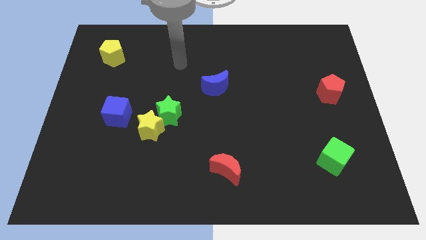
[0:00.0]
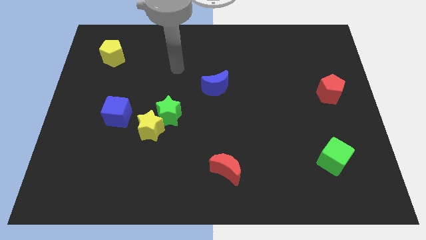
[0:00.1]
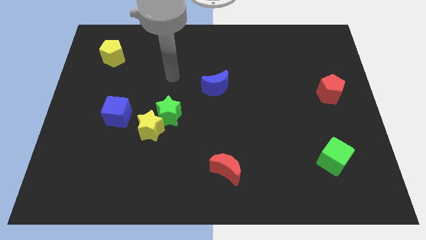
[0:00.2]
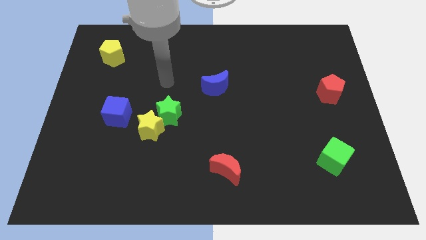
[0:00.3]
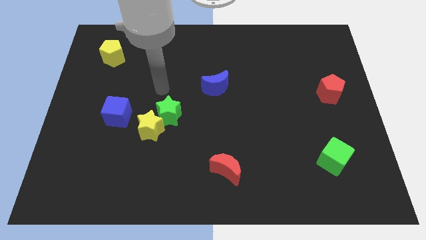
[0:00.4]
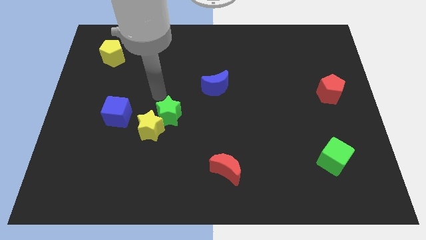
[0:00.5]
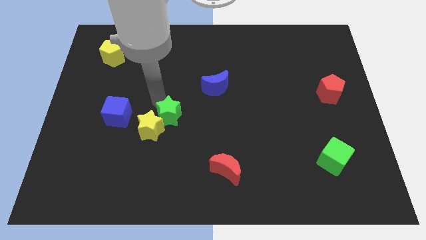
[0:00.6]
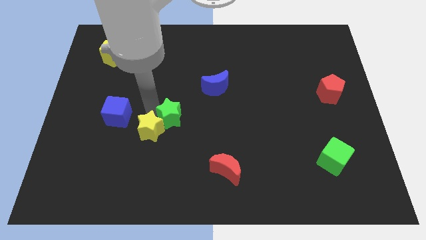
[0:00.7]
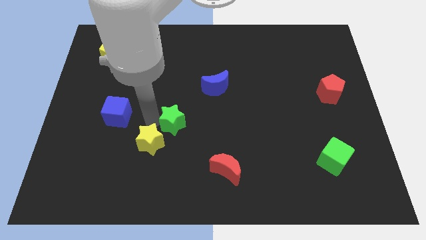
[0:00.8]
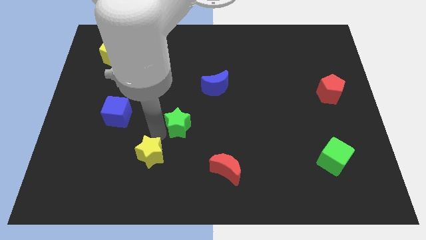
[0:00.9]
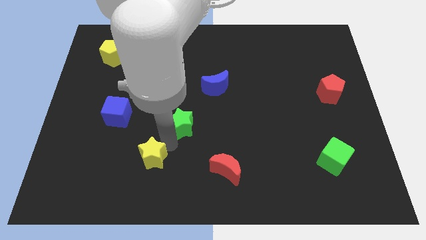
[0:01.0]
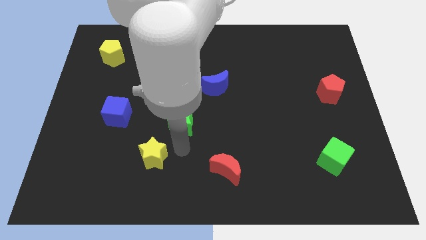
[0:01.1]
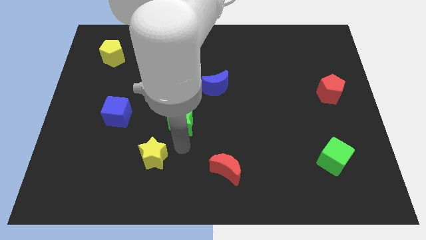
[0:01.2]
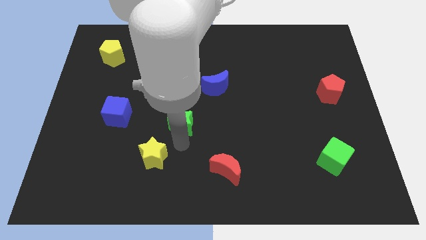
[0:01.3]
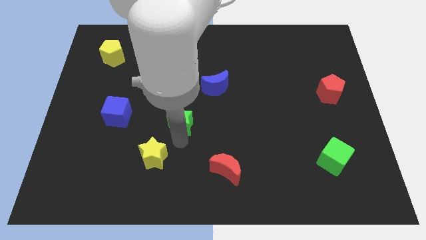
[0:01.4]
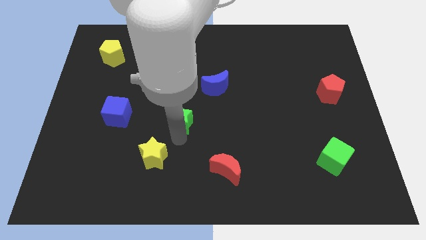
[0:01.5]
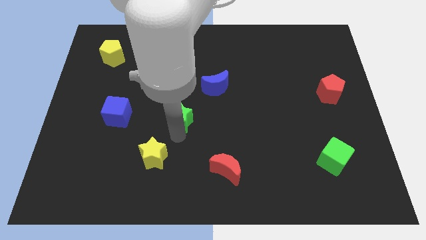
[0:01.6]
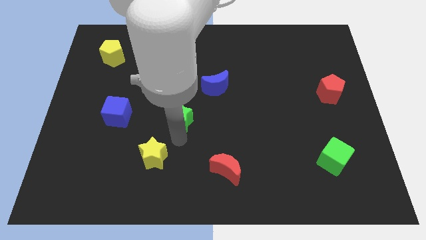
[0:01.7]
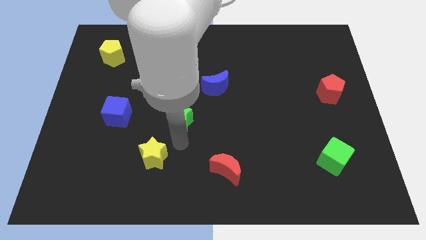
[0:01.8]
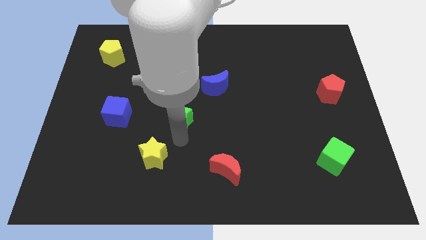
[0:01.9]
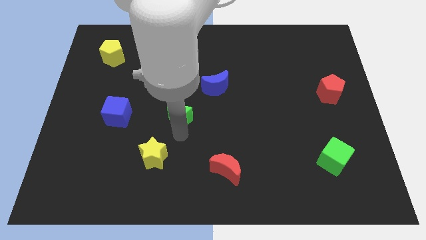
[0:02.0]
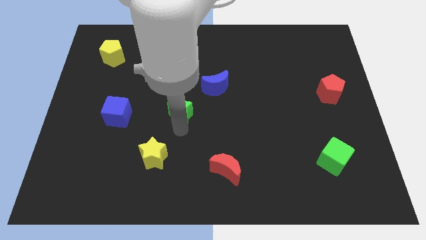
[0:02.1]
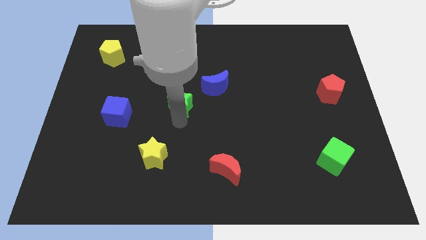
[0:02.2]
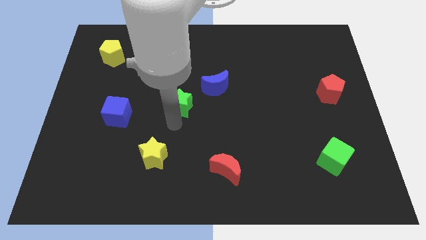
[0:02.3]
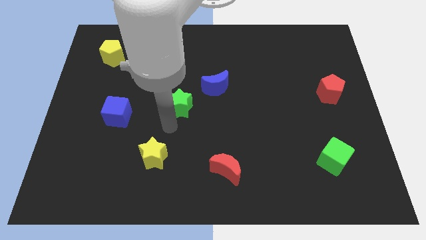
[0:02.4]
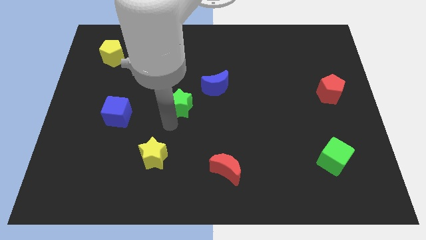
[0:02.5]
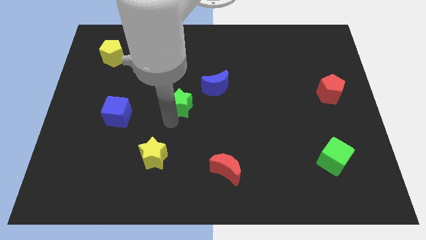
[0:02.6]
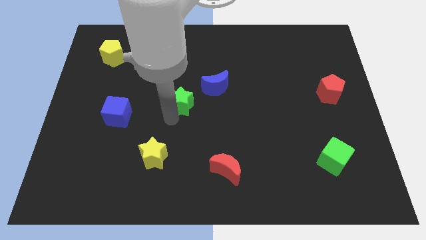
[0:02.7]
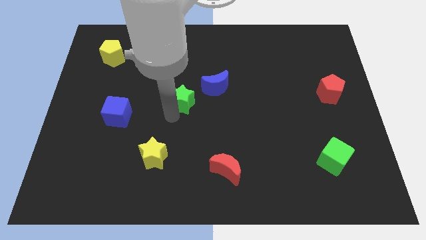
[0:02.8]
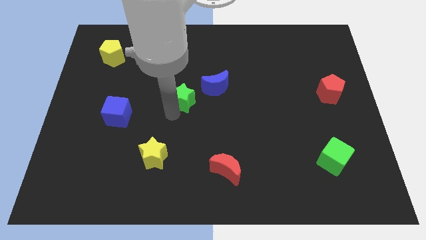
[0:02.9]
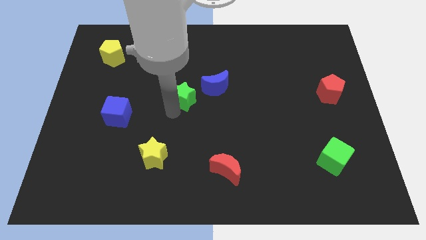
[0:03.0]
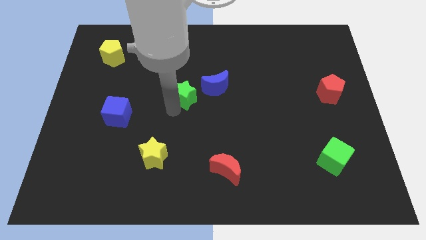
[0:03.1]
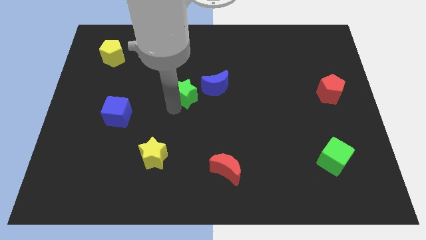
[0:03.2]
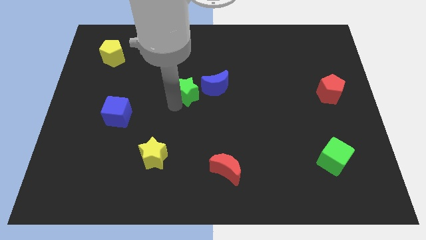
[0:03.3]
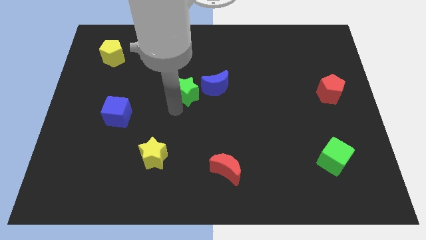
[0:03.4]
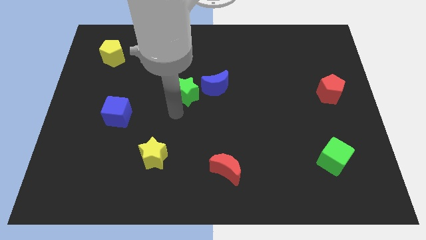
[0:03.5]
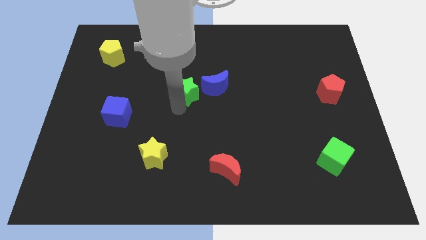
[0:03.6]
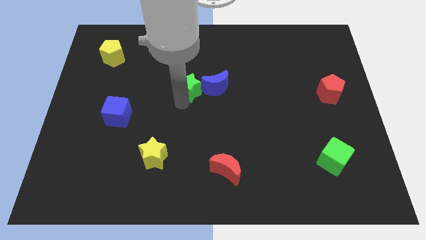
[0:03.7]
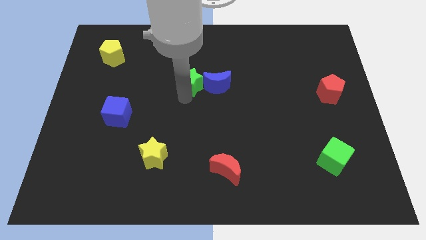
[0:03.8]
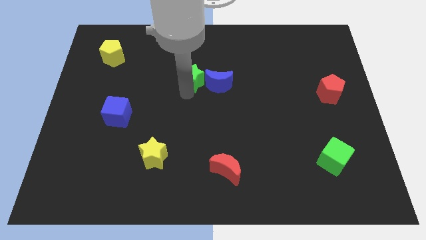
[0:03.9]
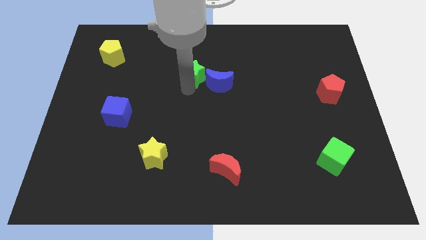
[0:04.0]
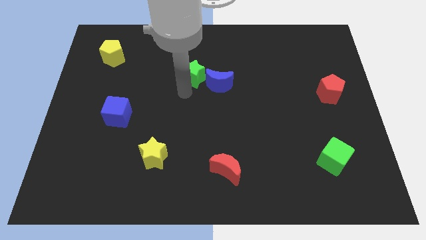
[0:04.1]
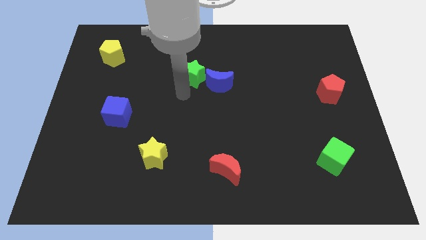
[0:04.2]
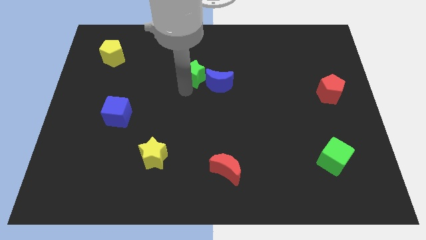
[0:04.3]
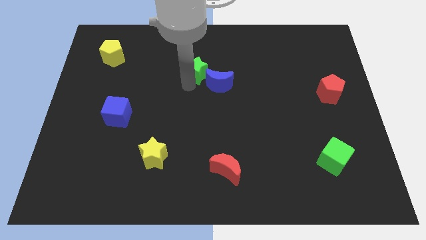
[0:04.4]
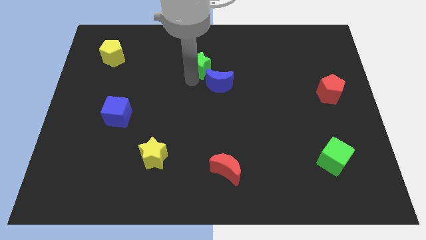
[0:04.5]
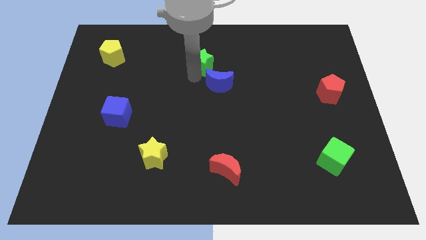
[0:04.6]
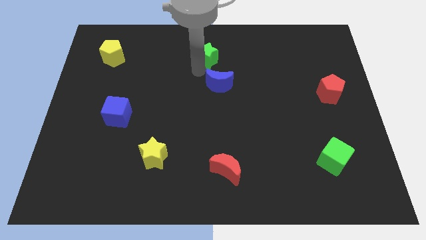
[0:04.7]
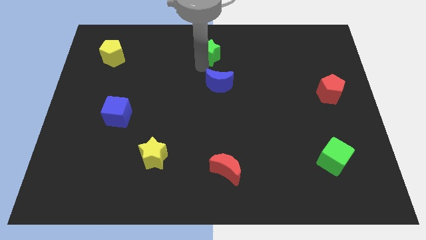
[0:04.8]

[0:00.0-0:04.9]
slide the green star to the top

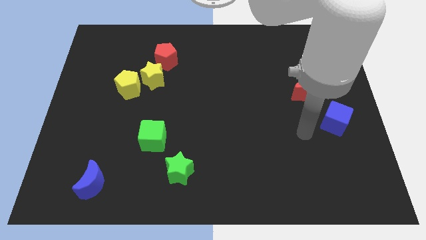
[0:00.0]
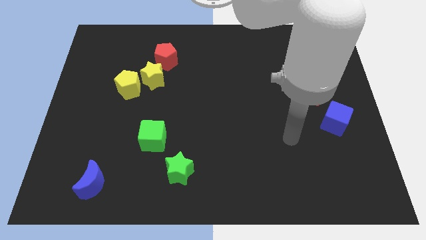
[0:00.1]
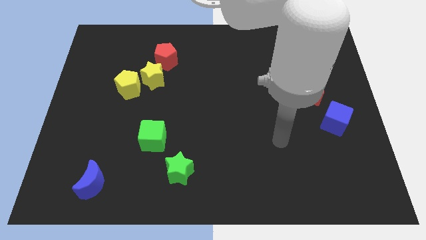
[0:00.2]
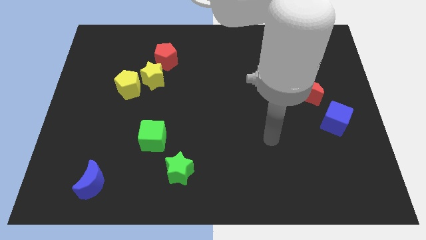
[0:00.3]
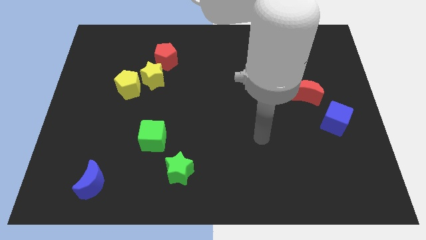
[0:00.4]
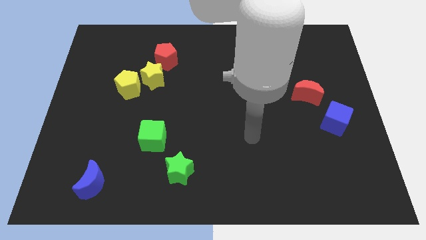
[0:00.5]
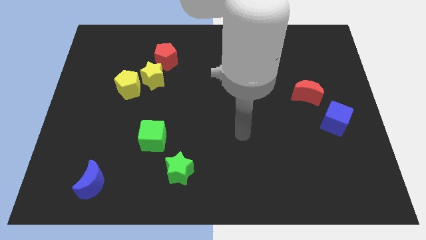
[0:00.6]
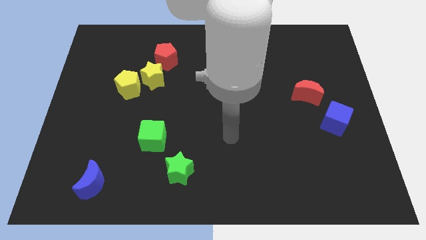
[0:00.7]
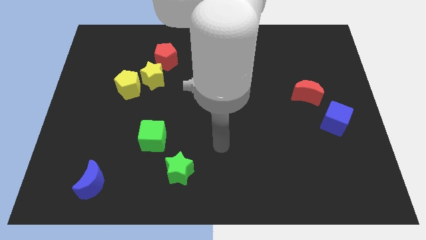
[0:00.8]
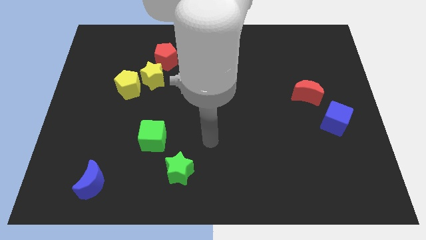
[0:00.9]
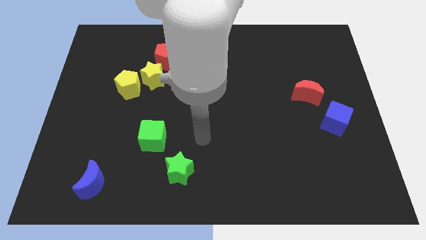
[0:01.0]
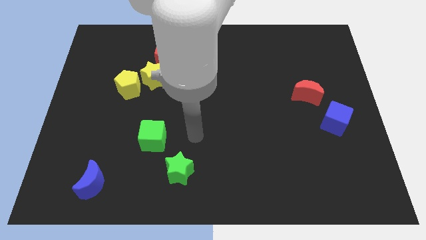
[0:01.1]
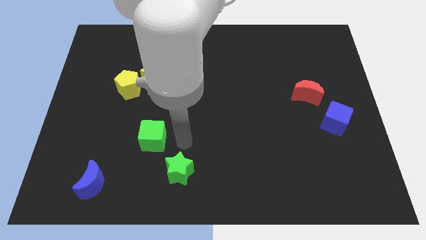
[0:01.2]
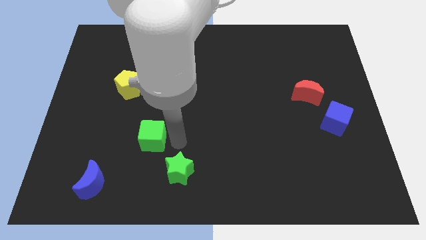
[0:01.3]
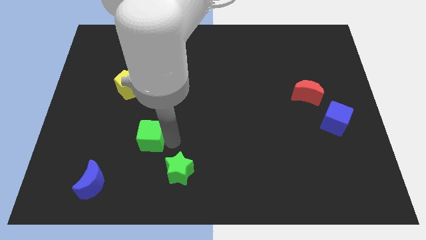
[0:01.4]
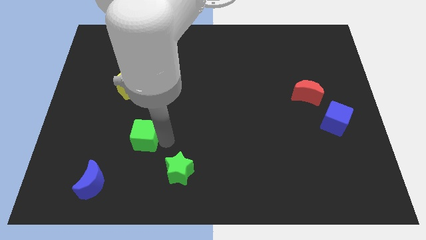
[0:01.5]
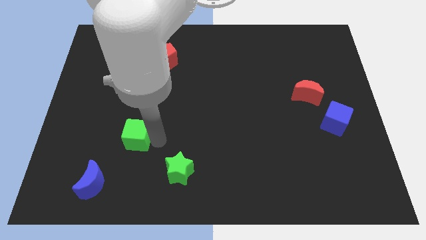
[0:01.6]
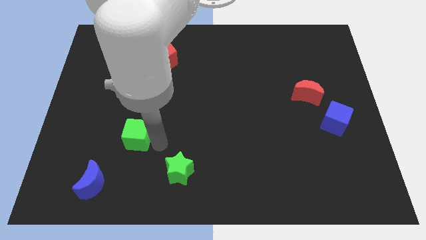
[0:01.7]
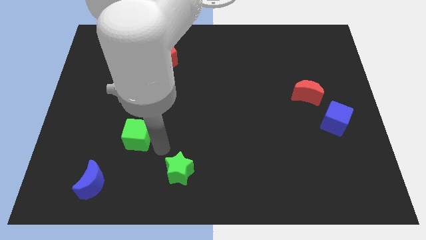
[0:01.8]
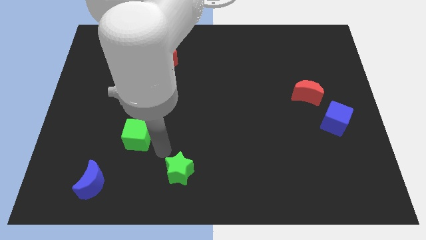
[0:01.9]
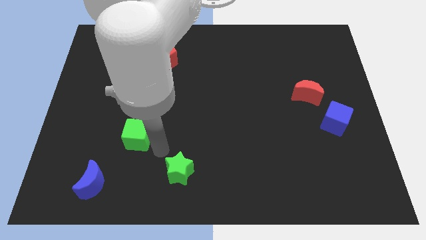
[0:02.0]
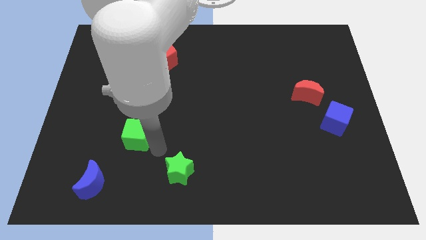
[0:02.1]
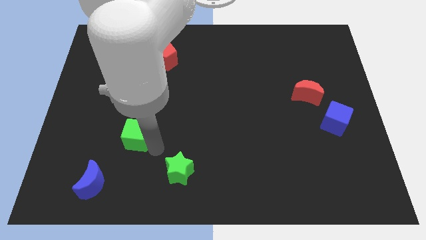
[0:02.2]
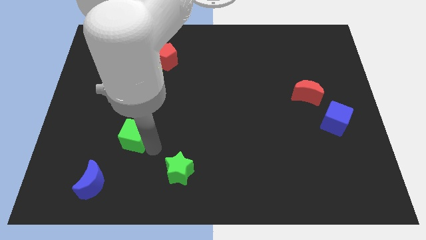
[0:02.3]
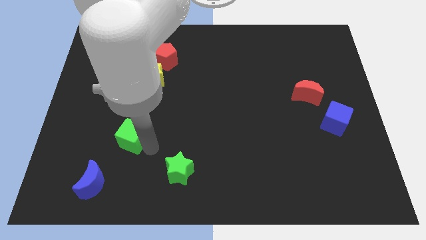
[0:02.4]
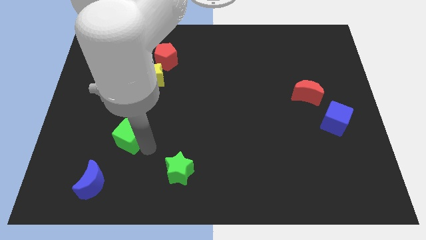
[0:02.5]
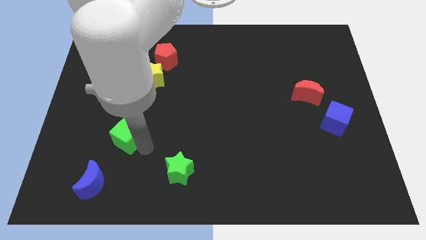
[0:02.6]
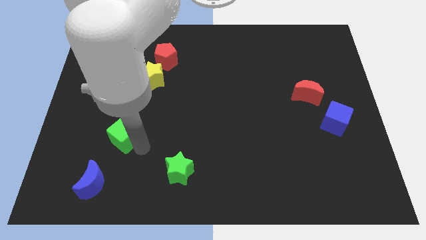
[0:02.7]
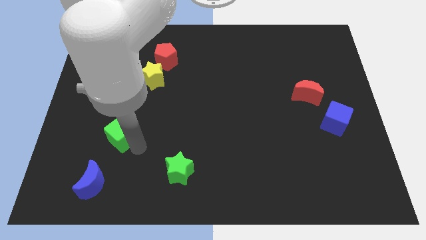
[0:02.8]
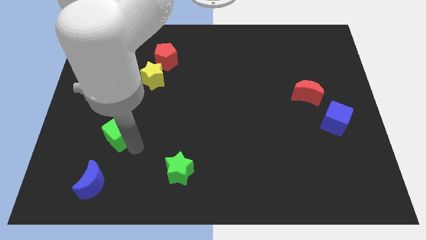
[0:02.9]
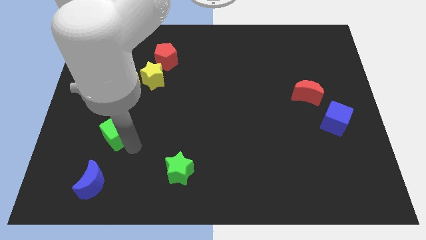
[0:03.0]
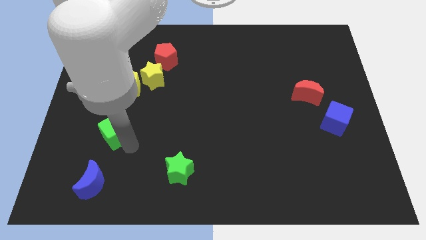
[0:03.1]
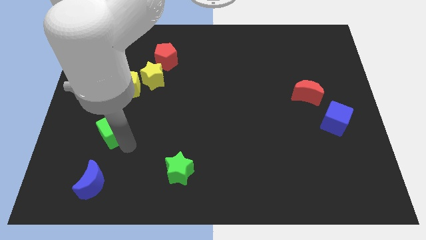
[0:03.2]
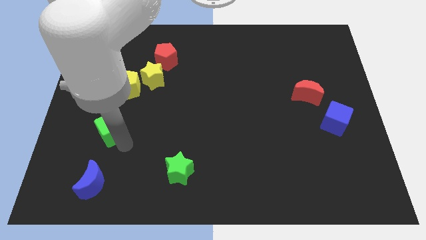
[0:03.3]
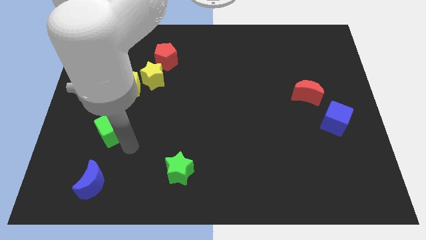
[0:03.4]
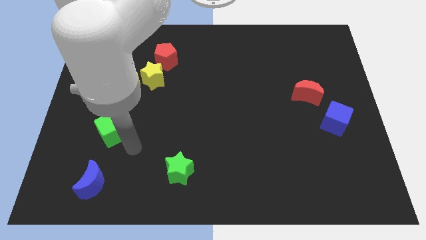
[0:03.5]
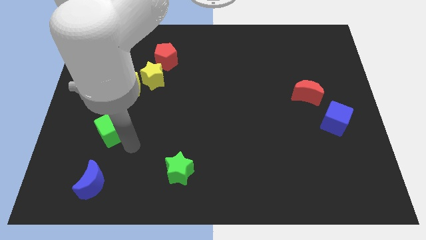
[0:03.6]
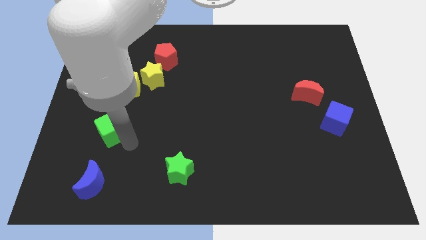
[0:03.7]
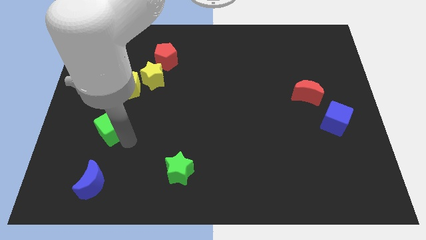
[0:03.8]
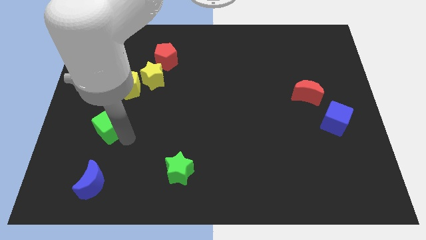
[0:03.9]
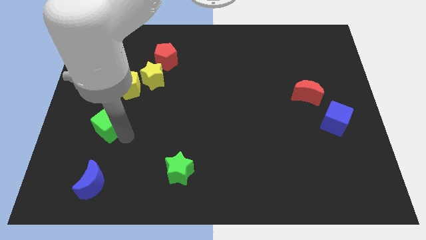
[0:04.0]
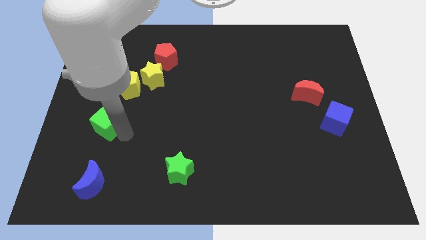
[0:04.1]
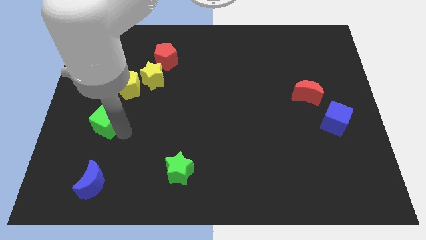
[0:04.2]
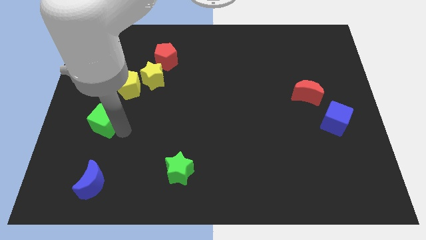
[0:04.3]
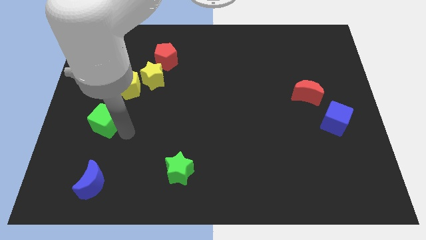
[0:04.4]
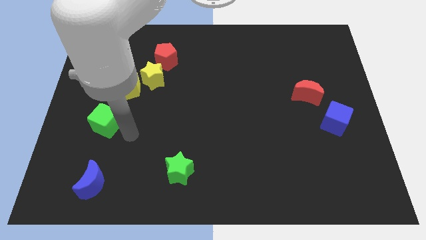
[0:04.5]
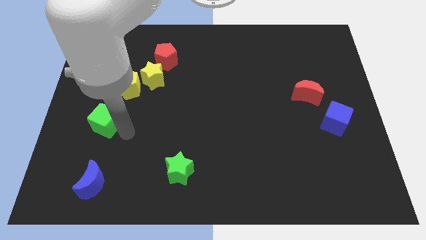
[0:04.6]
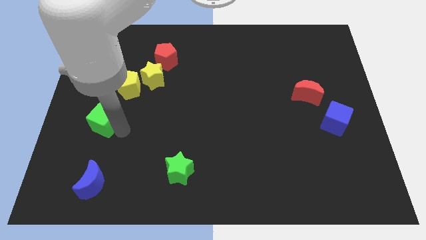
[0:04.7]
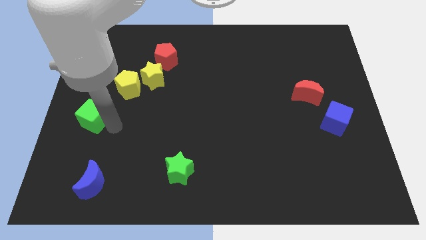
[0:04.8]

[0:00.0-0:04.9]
slide the green cube to the left side
